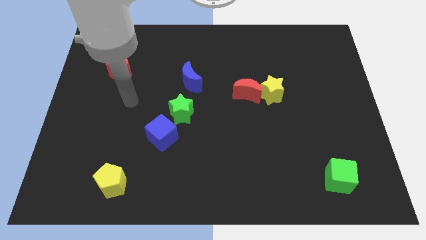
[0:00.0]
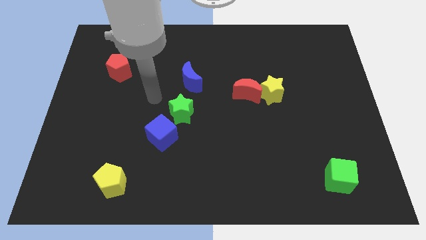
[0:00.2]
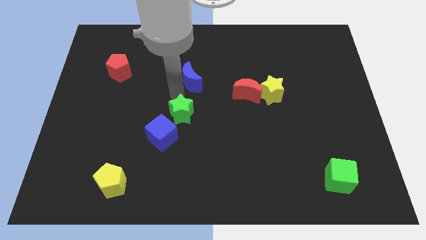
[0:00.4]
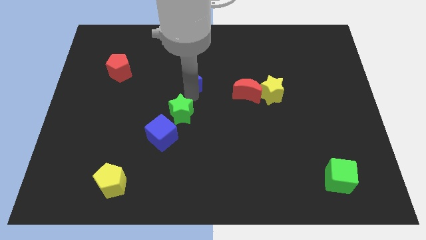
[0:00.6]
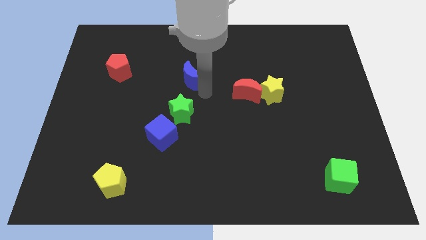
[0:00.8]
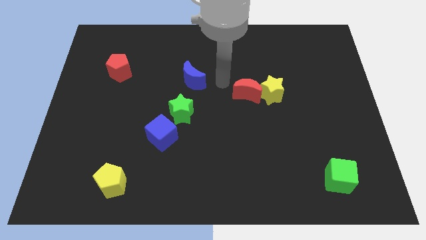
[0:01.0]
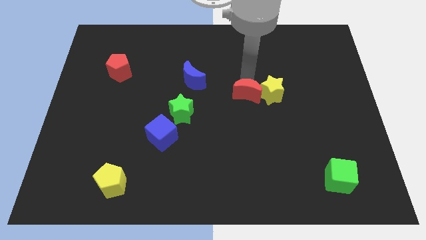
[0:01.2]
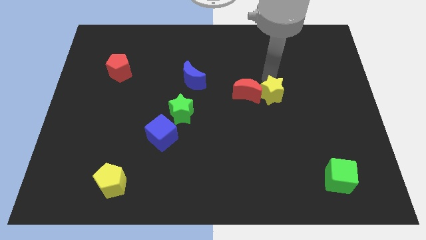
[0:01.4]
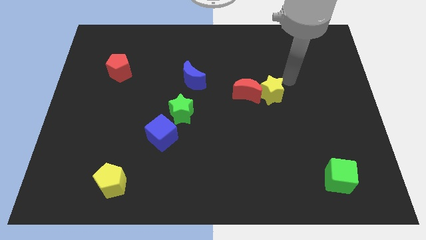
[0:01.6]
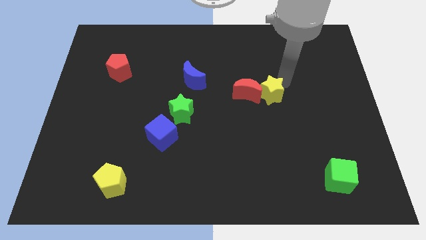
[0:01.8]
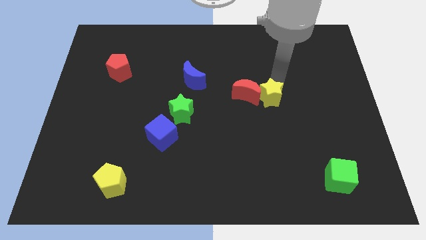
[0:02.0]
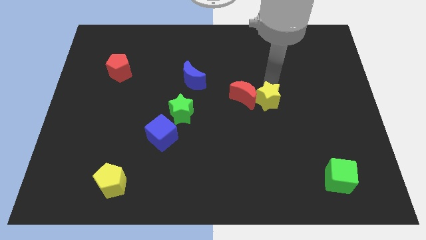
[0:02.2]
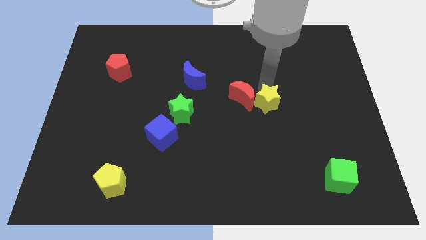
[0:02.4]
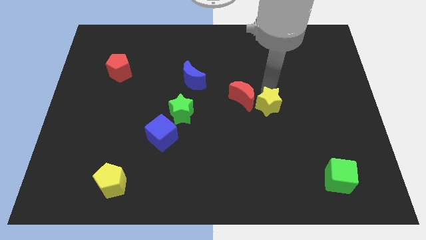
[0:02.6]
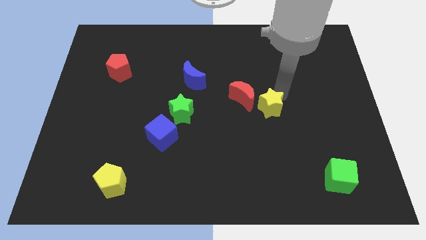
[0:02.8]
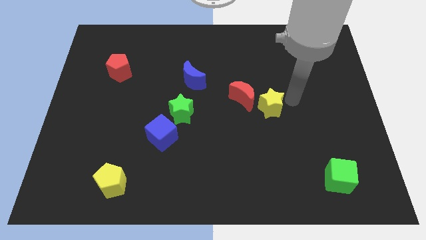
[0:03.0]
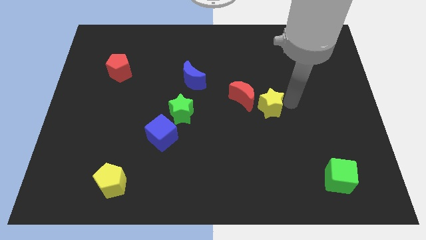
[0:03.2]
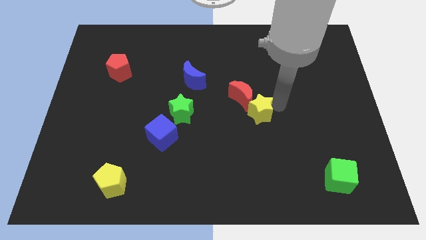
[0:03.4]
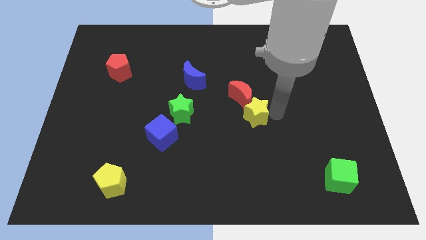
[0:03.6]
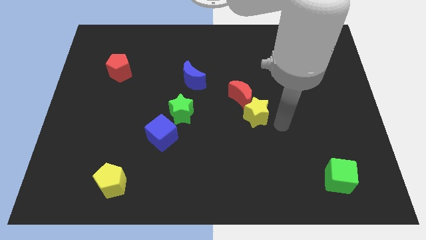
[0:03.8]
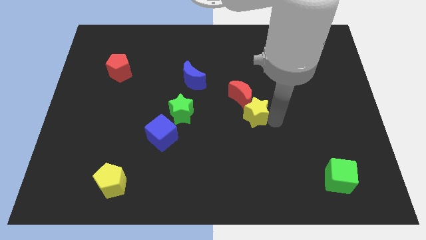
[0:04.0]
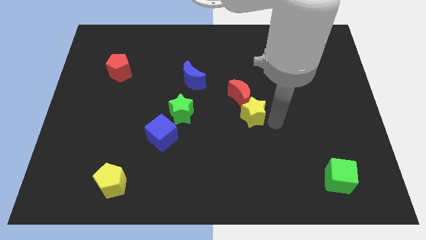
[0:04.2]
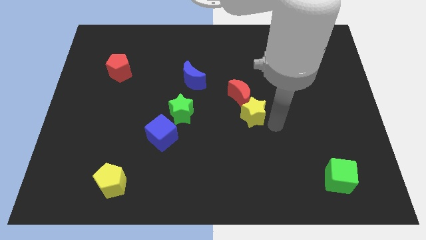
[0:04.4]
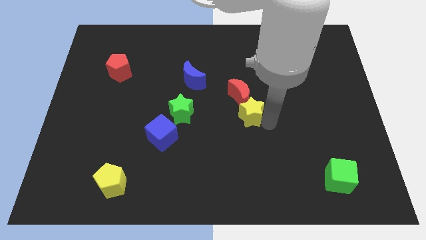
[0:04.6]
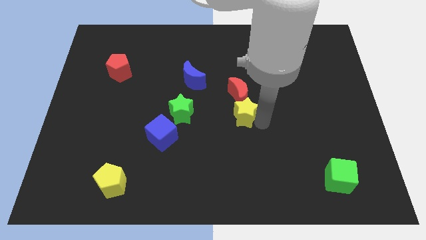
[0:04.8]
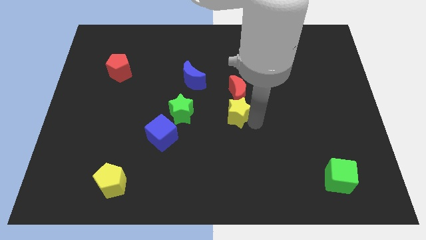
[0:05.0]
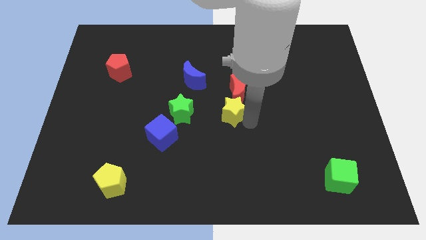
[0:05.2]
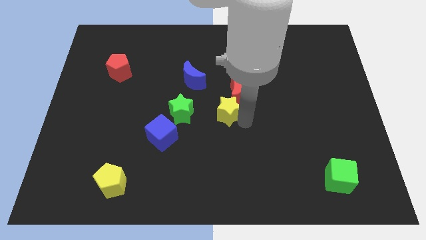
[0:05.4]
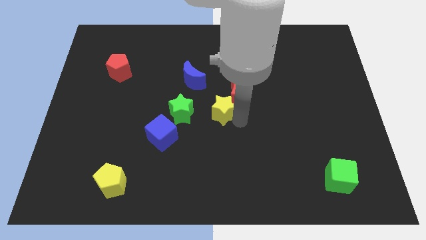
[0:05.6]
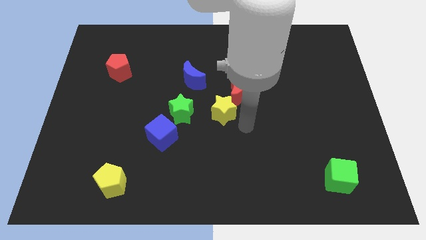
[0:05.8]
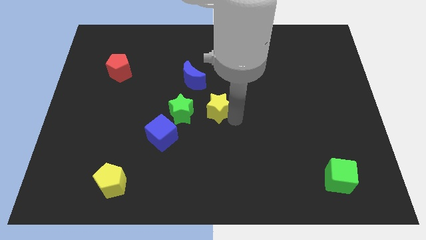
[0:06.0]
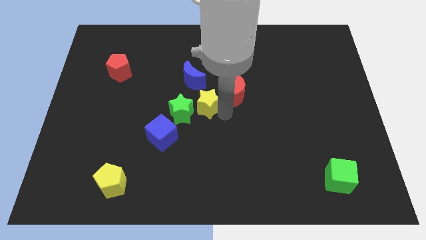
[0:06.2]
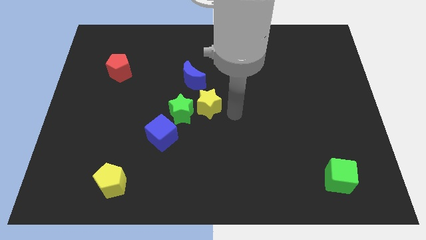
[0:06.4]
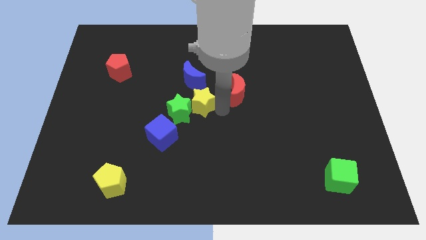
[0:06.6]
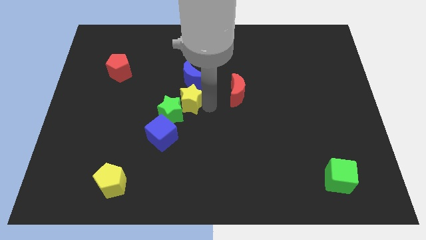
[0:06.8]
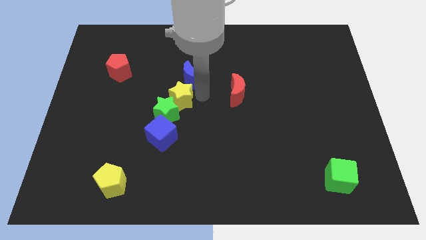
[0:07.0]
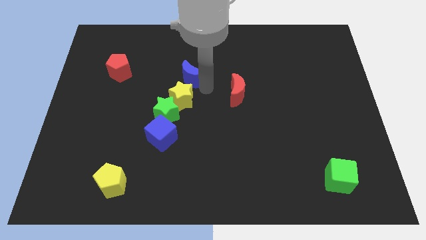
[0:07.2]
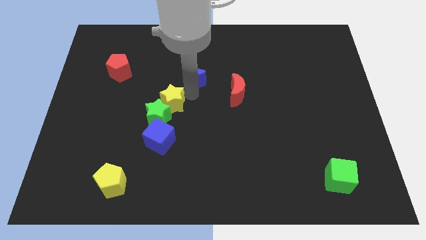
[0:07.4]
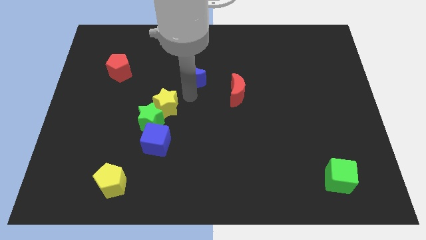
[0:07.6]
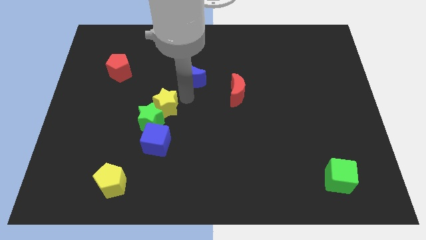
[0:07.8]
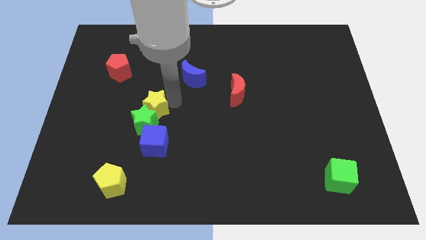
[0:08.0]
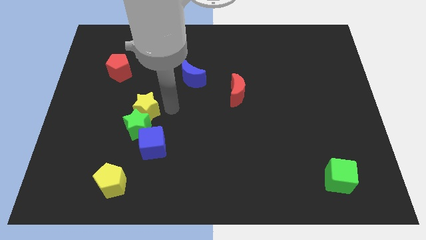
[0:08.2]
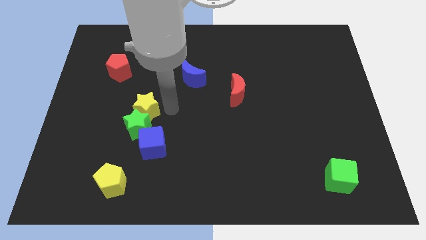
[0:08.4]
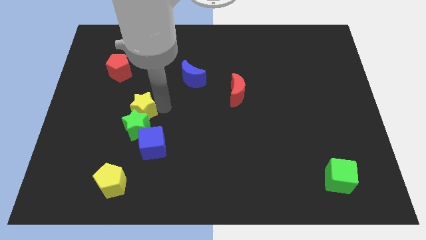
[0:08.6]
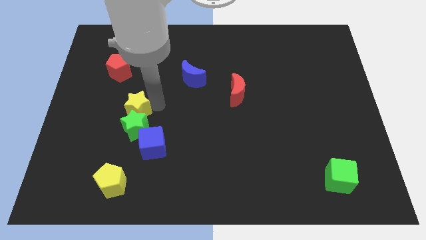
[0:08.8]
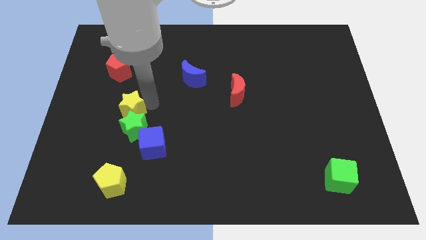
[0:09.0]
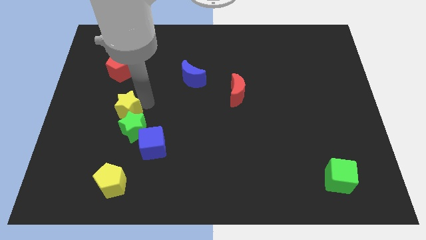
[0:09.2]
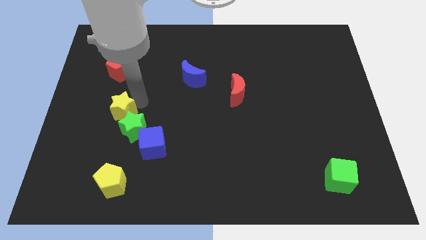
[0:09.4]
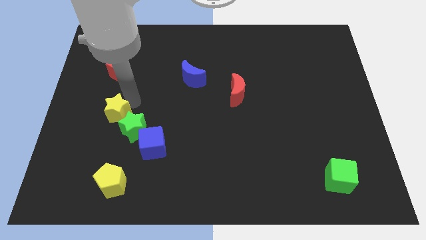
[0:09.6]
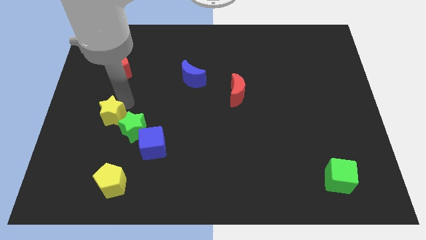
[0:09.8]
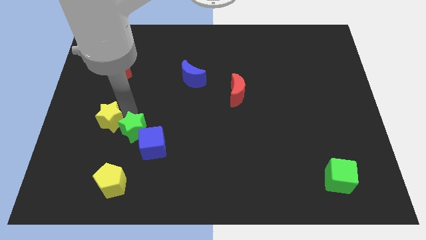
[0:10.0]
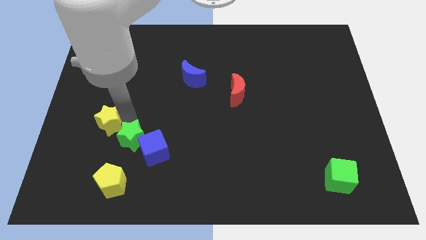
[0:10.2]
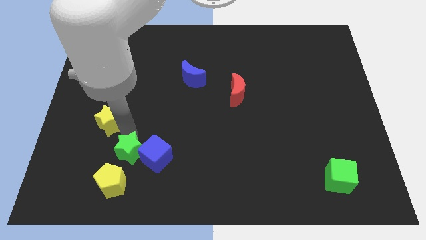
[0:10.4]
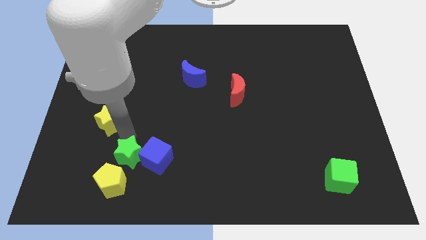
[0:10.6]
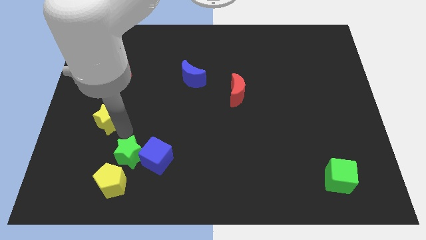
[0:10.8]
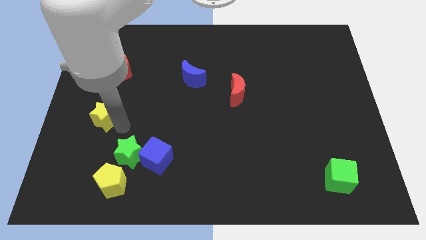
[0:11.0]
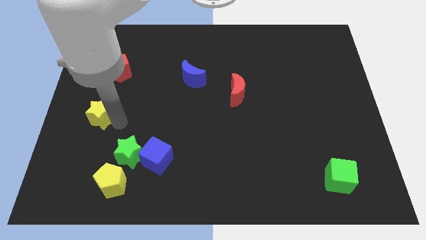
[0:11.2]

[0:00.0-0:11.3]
move the yellow star to the center left
